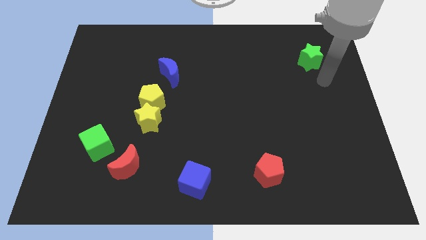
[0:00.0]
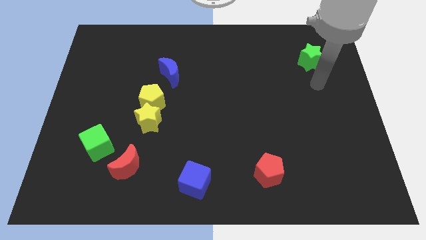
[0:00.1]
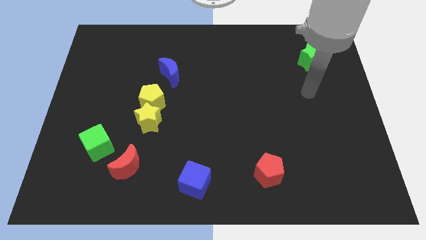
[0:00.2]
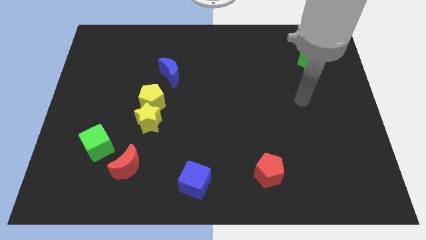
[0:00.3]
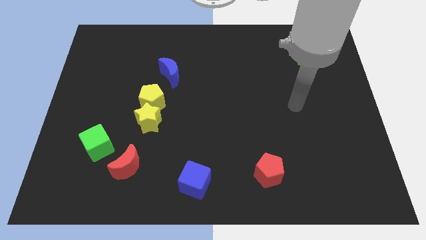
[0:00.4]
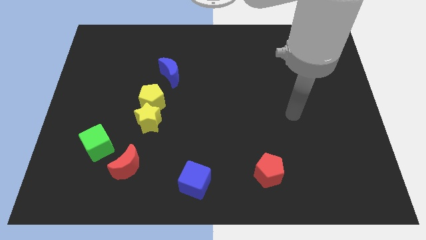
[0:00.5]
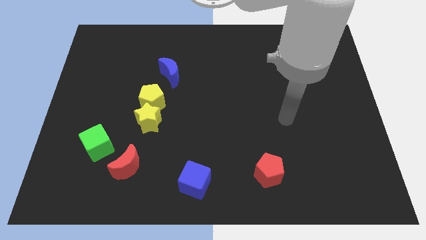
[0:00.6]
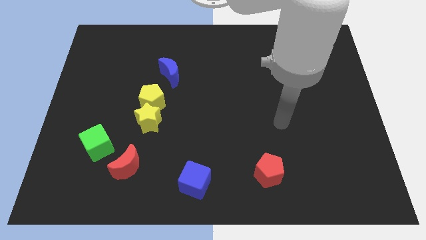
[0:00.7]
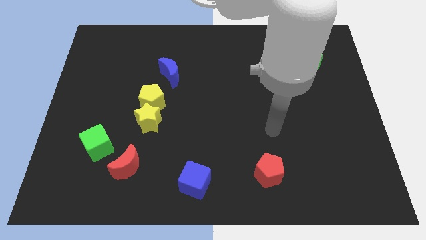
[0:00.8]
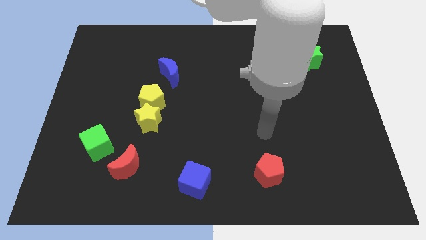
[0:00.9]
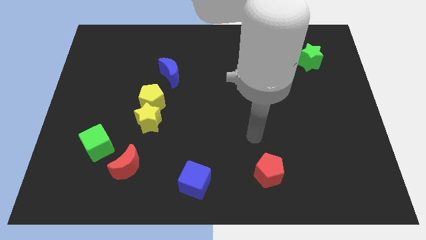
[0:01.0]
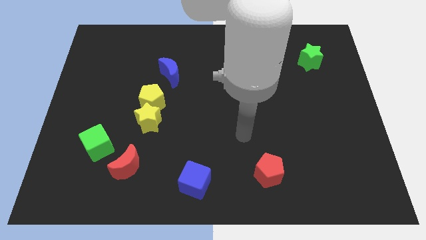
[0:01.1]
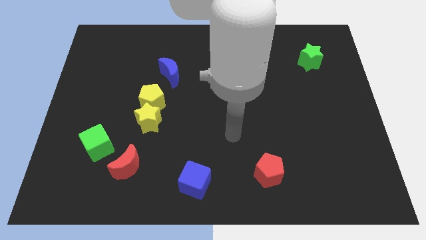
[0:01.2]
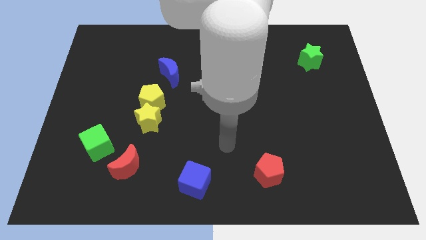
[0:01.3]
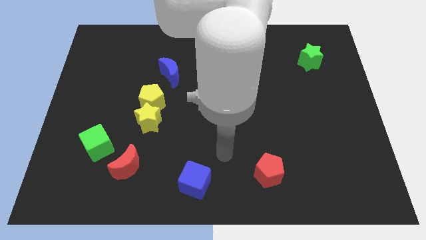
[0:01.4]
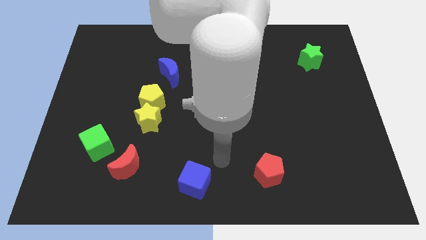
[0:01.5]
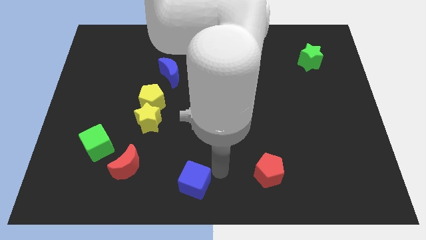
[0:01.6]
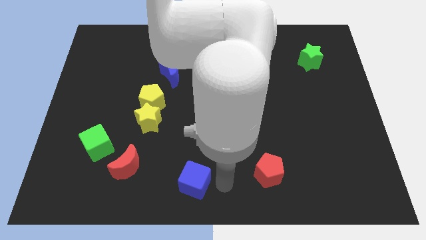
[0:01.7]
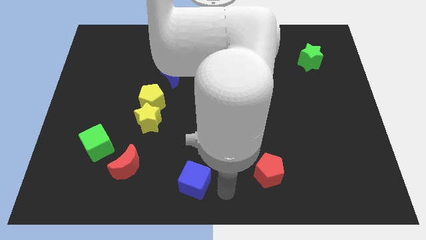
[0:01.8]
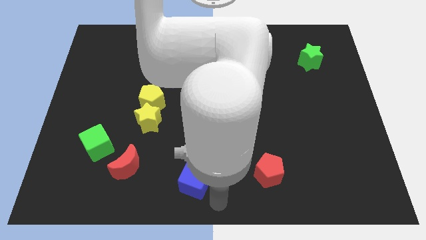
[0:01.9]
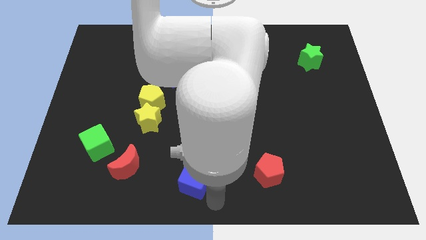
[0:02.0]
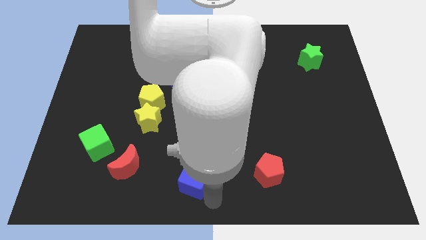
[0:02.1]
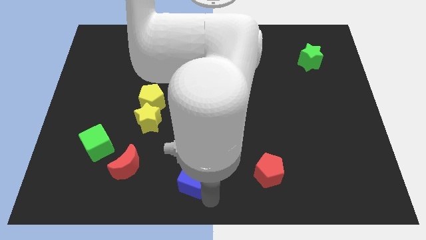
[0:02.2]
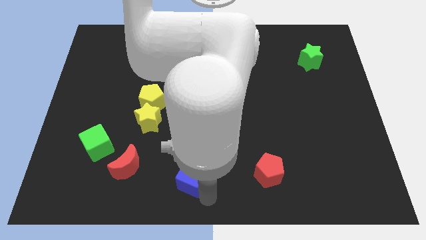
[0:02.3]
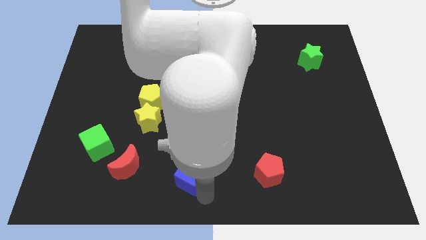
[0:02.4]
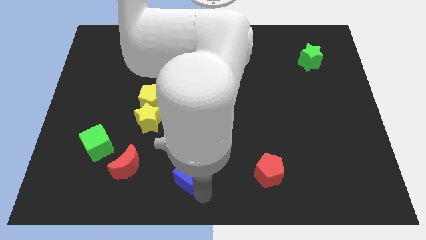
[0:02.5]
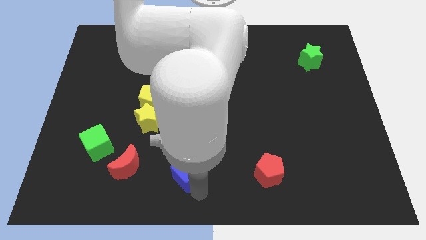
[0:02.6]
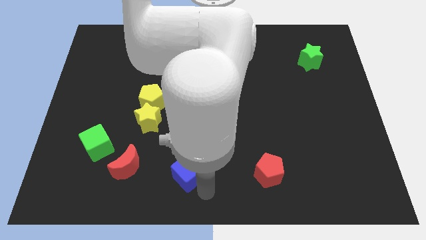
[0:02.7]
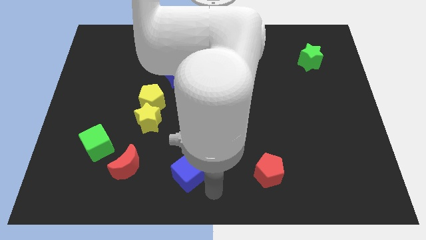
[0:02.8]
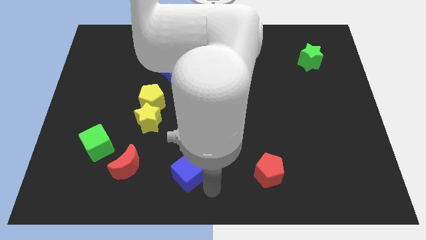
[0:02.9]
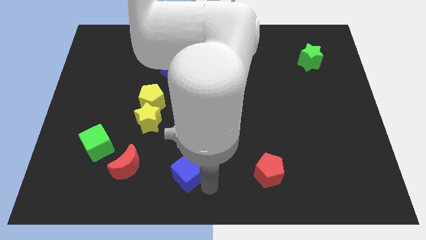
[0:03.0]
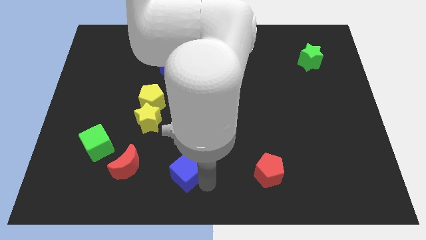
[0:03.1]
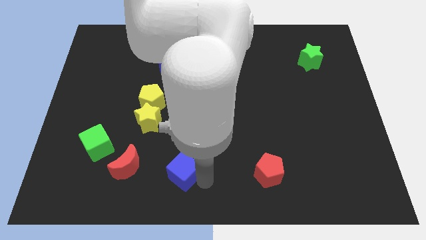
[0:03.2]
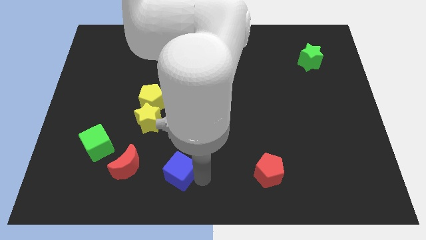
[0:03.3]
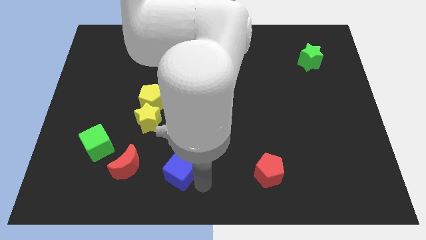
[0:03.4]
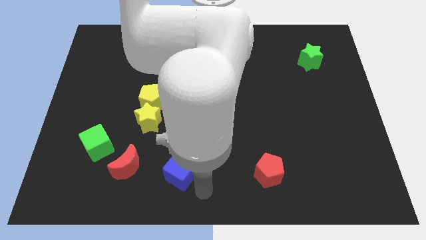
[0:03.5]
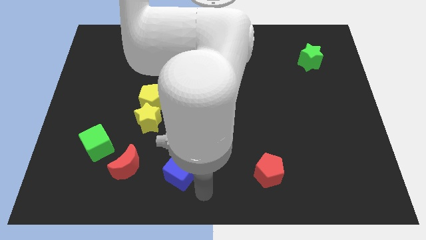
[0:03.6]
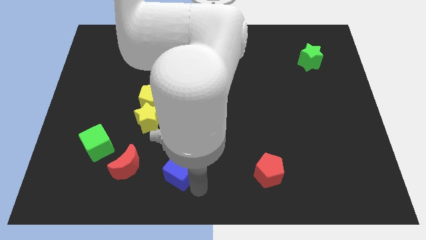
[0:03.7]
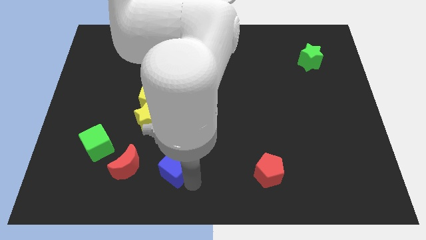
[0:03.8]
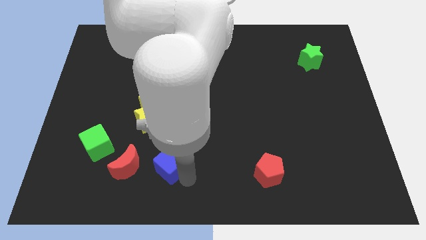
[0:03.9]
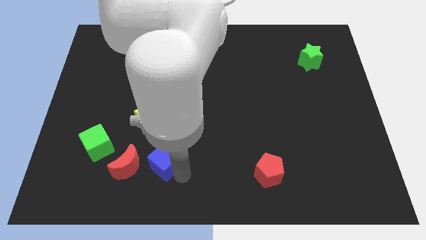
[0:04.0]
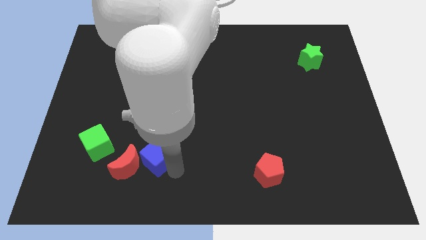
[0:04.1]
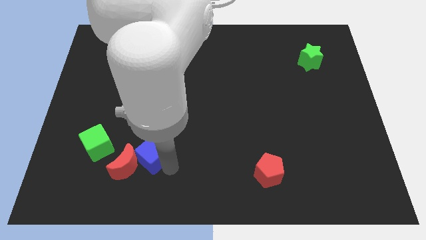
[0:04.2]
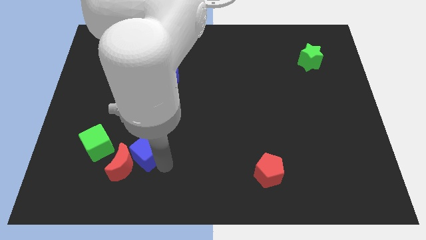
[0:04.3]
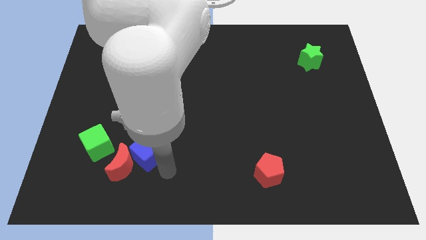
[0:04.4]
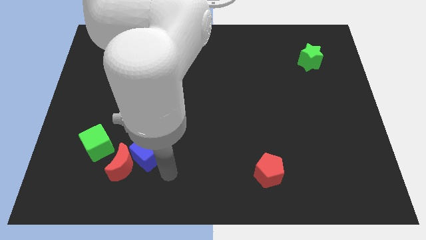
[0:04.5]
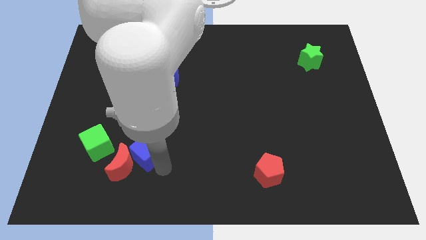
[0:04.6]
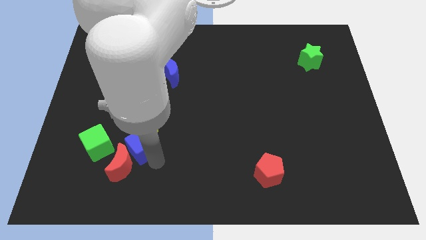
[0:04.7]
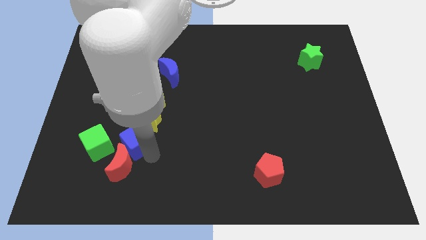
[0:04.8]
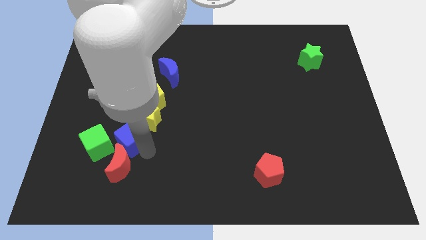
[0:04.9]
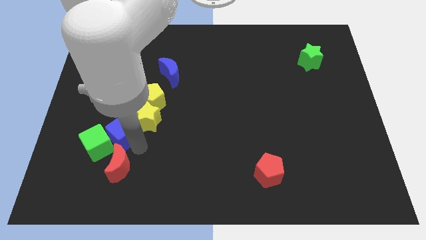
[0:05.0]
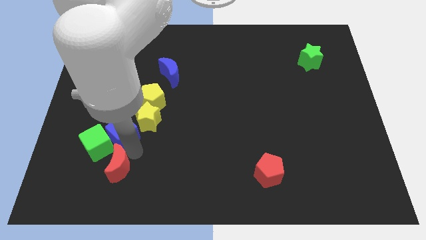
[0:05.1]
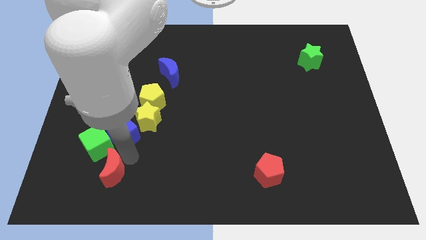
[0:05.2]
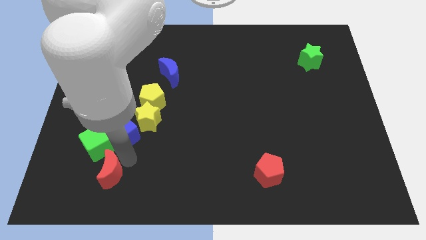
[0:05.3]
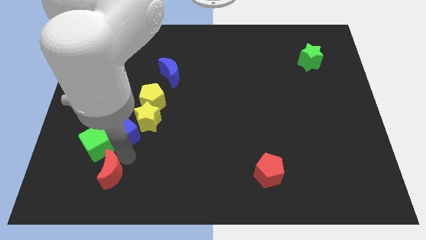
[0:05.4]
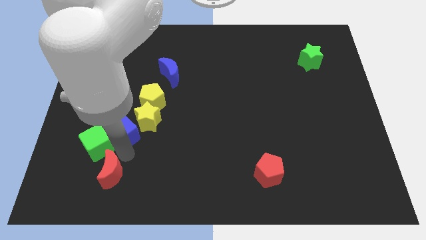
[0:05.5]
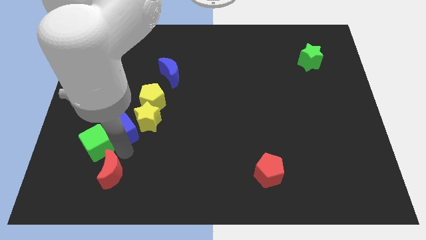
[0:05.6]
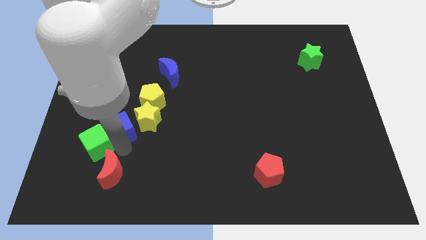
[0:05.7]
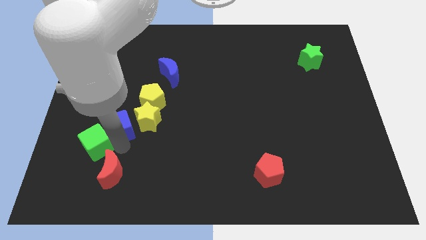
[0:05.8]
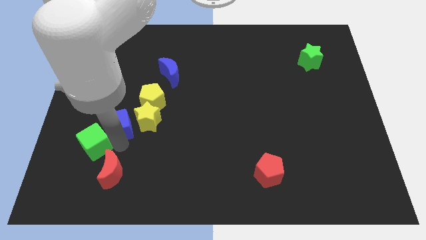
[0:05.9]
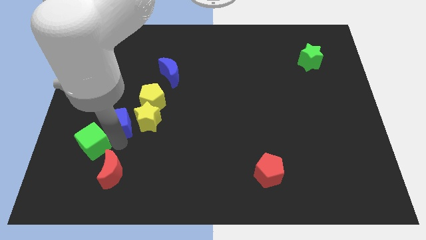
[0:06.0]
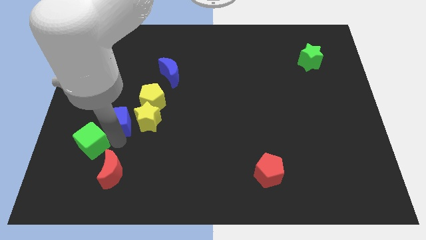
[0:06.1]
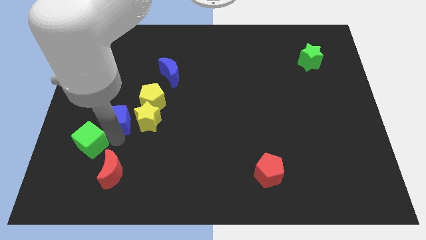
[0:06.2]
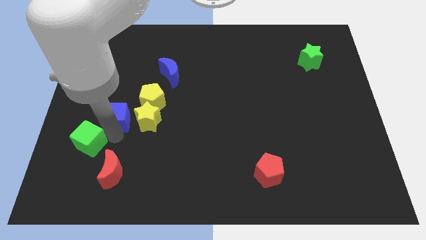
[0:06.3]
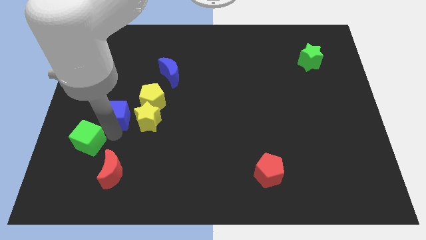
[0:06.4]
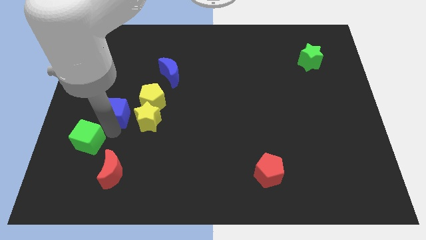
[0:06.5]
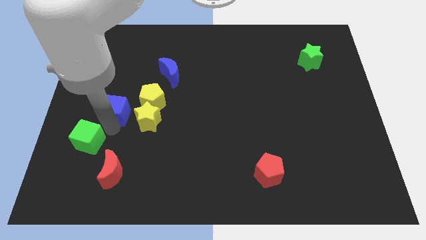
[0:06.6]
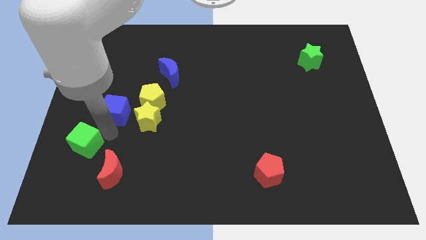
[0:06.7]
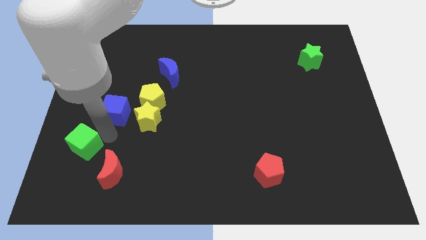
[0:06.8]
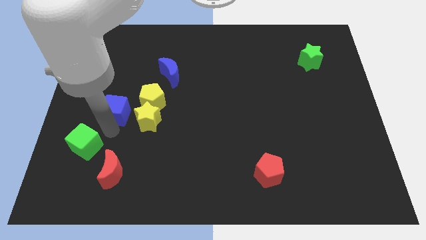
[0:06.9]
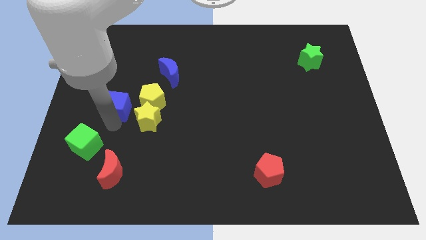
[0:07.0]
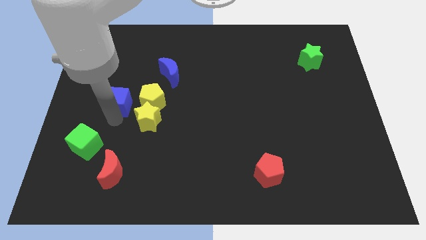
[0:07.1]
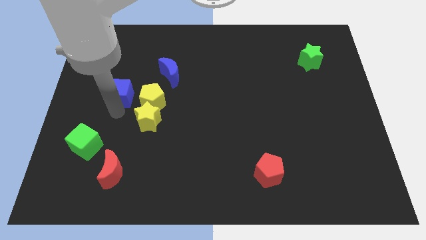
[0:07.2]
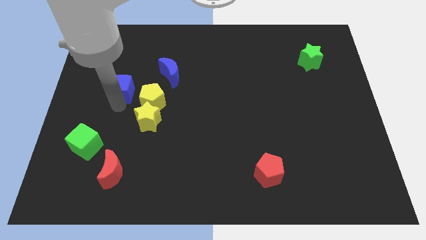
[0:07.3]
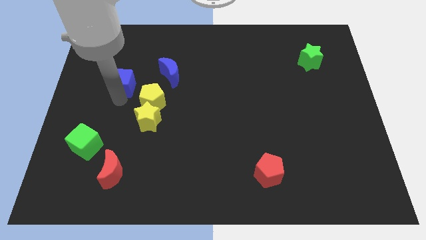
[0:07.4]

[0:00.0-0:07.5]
move the blue cube to the left of the blue moon
